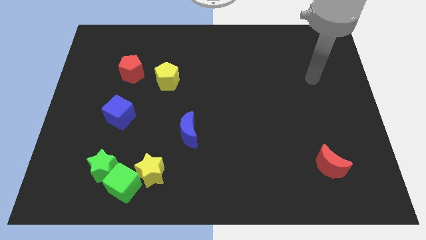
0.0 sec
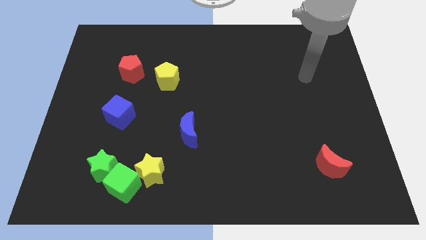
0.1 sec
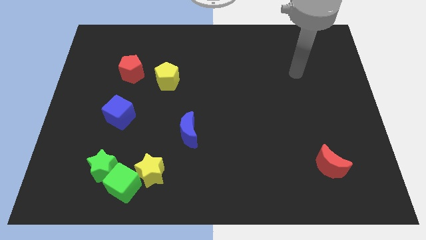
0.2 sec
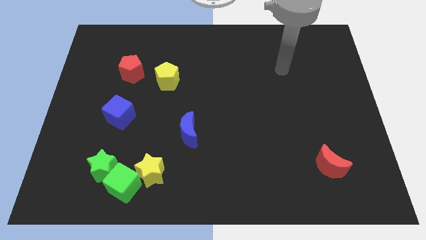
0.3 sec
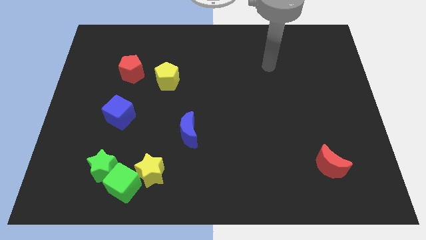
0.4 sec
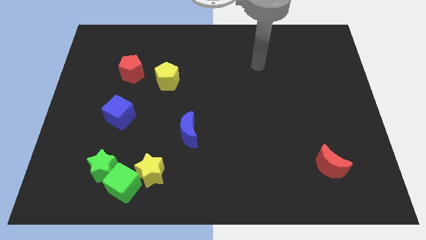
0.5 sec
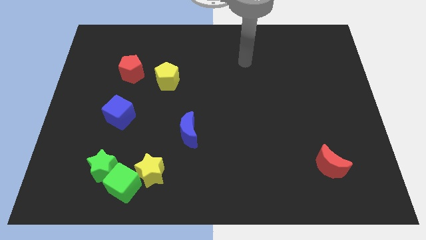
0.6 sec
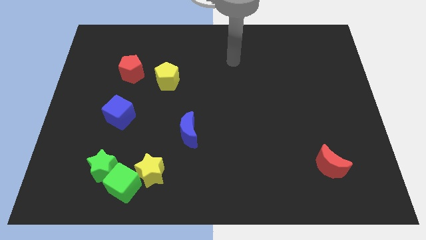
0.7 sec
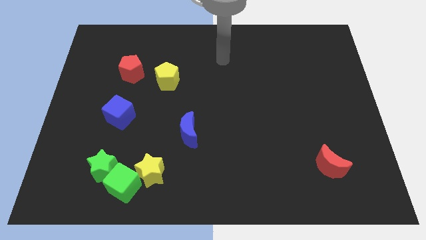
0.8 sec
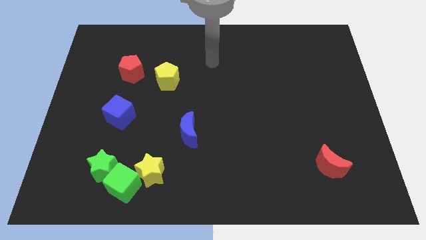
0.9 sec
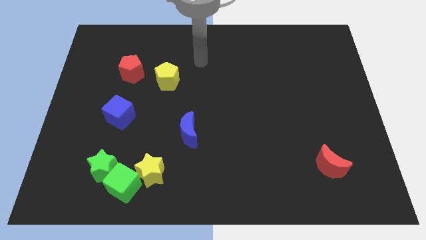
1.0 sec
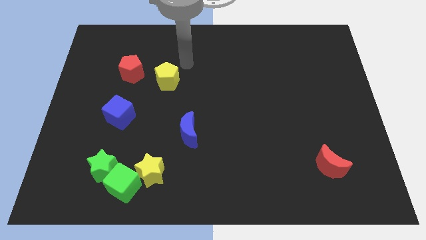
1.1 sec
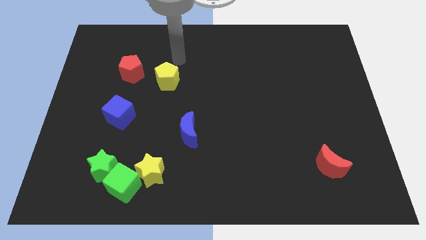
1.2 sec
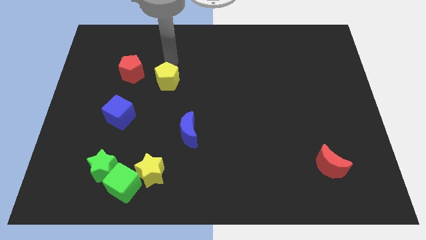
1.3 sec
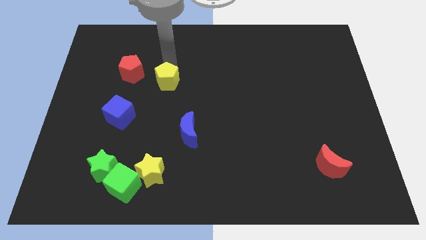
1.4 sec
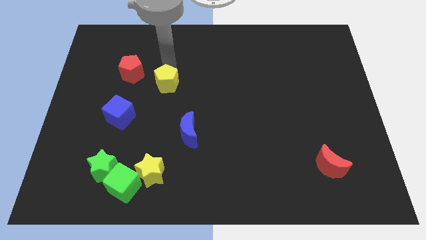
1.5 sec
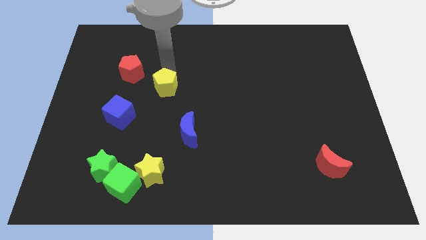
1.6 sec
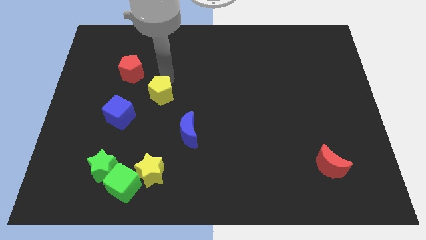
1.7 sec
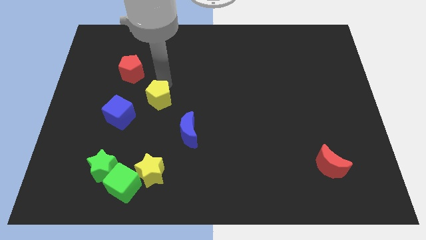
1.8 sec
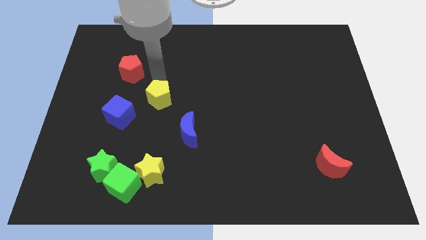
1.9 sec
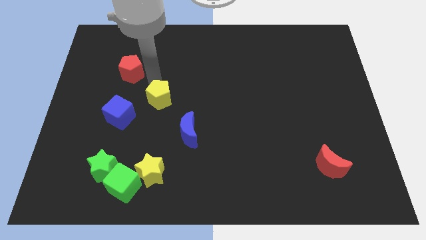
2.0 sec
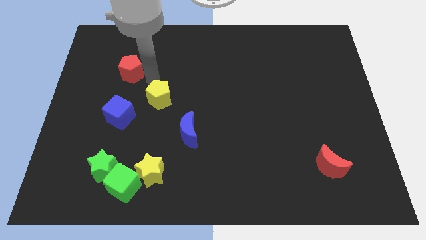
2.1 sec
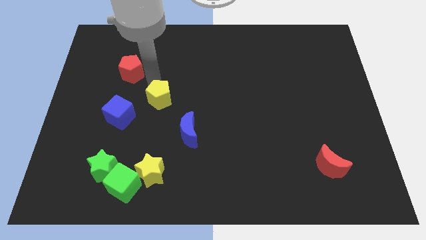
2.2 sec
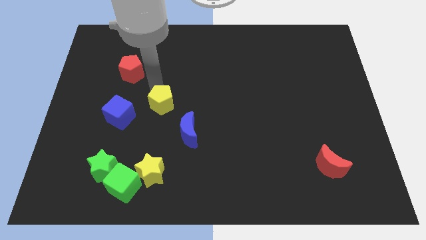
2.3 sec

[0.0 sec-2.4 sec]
slightly slide the yellow pentagon downwards

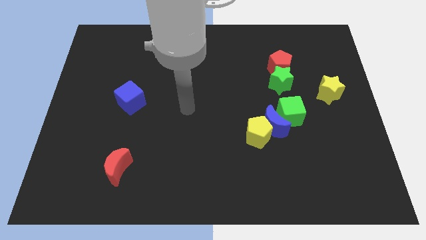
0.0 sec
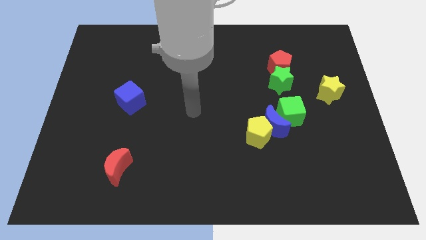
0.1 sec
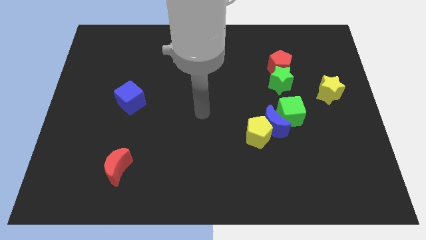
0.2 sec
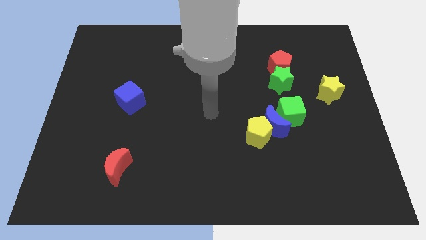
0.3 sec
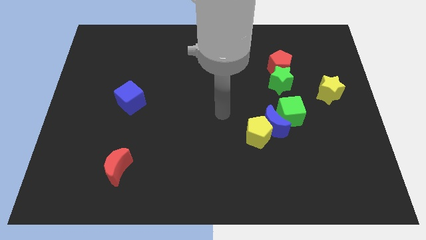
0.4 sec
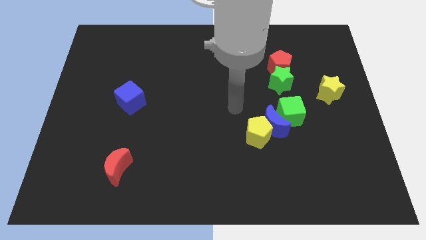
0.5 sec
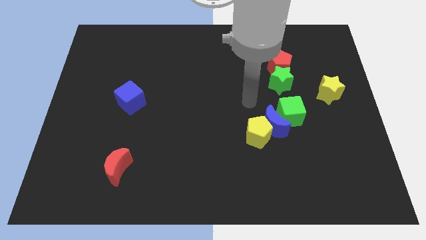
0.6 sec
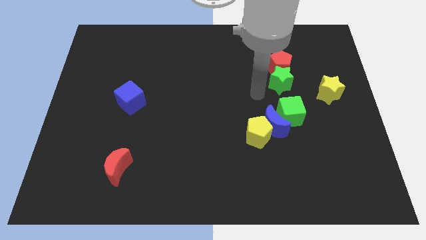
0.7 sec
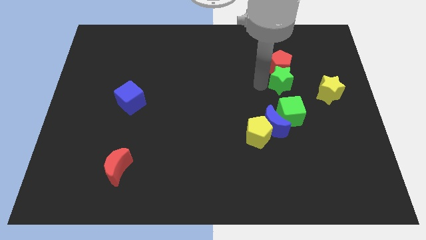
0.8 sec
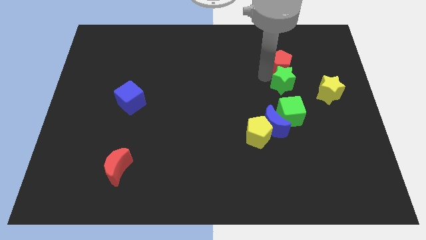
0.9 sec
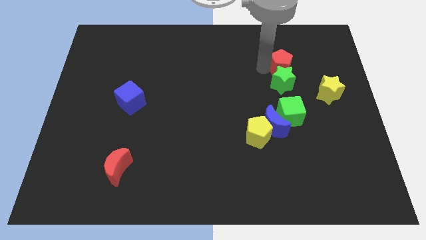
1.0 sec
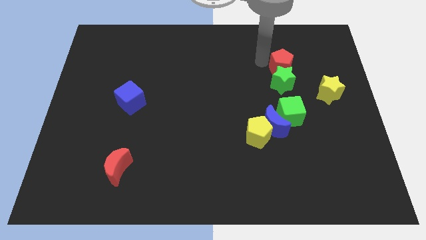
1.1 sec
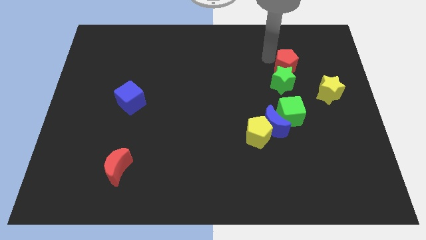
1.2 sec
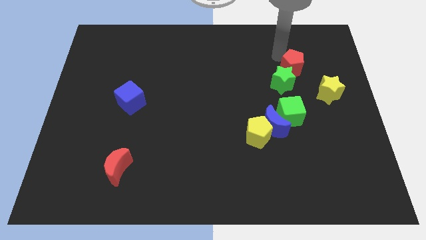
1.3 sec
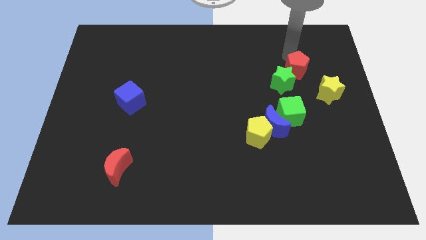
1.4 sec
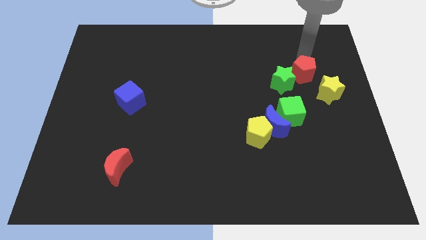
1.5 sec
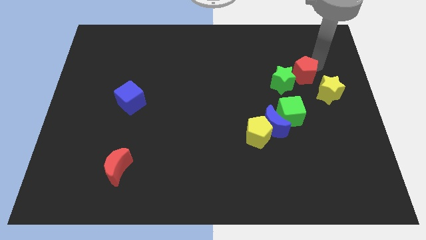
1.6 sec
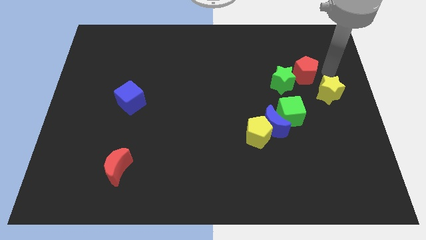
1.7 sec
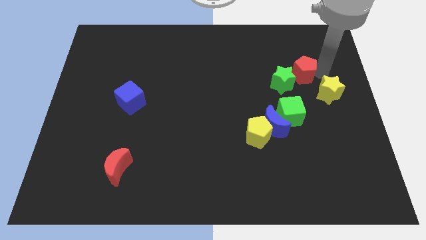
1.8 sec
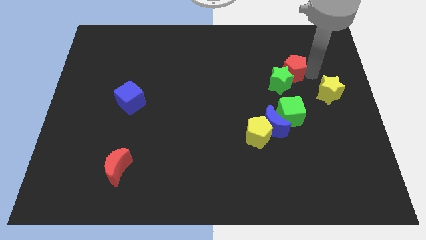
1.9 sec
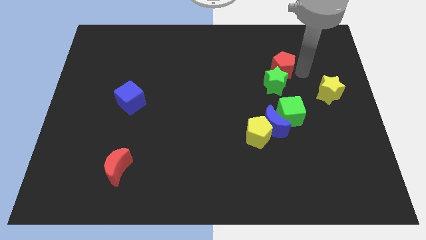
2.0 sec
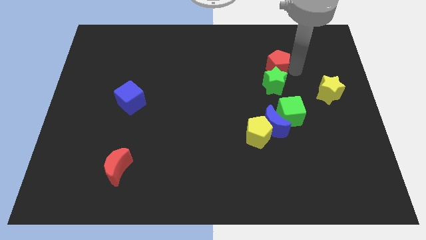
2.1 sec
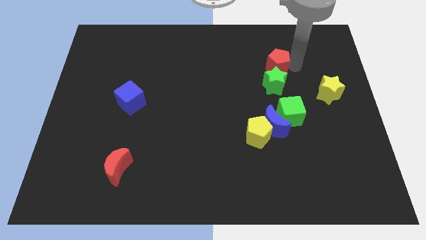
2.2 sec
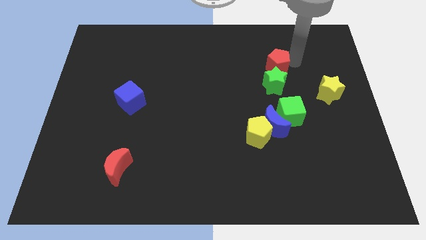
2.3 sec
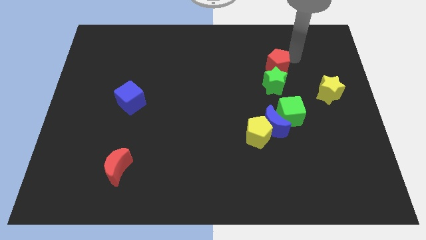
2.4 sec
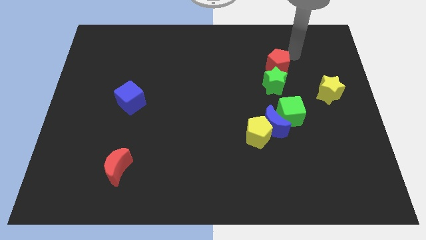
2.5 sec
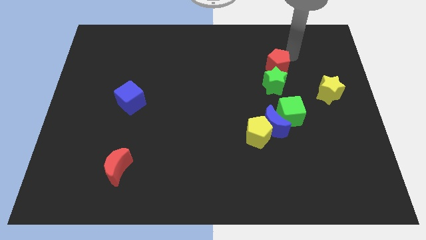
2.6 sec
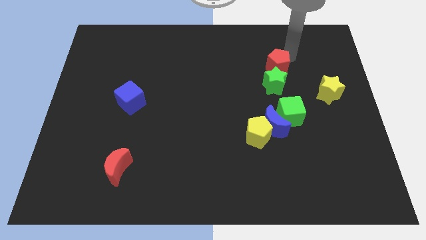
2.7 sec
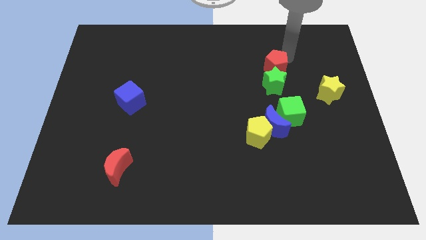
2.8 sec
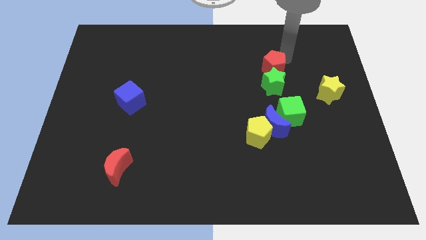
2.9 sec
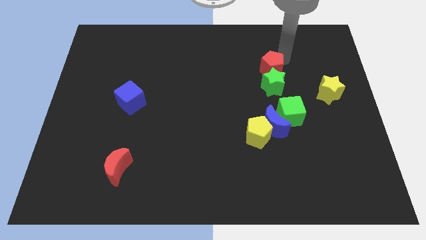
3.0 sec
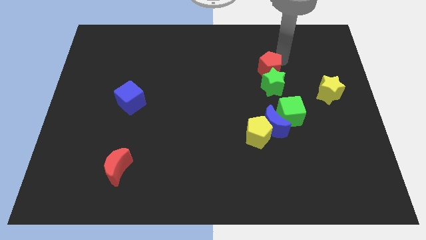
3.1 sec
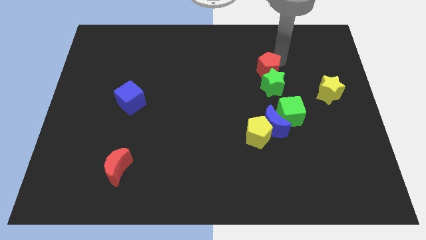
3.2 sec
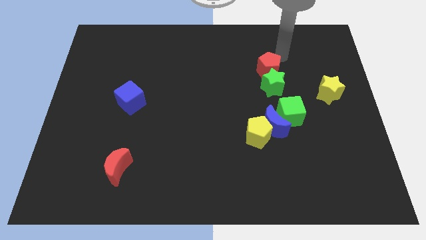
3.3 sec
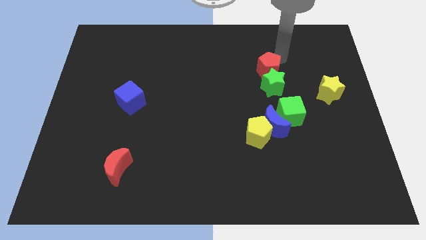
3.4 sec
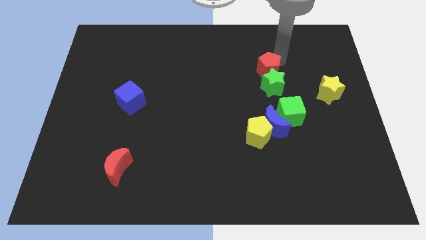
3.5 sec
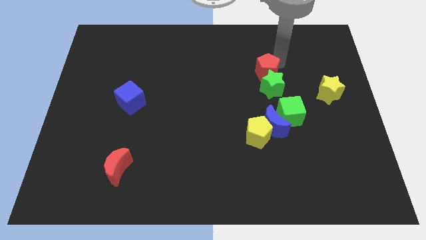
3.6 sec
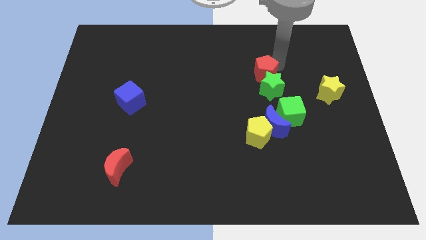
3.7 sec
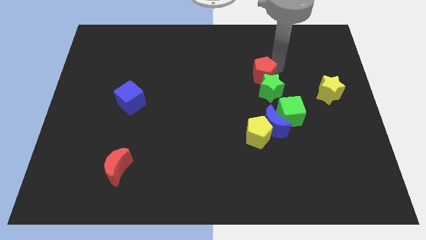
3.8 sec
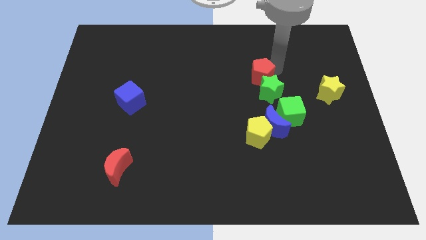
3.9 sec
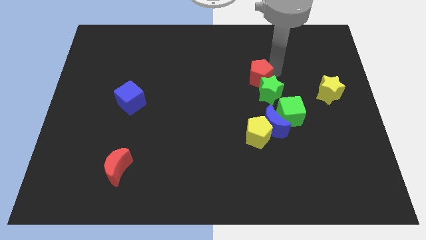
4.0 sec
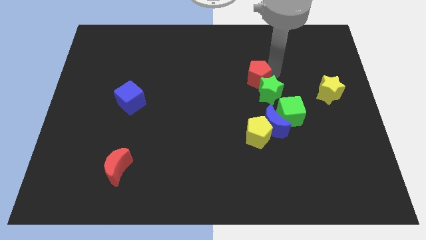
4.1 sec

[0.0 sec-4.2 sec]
slide the red pentagon diagonally down and left a bit

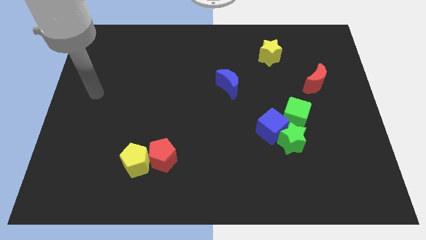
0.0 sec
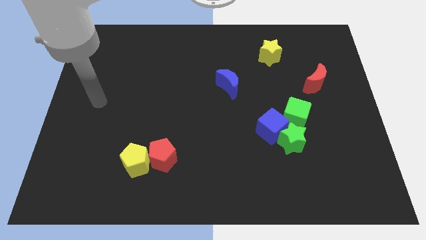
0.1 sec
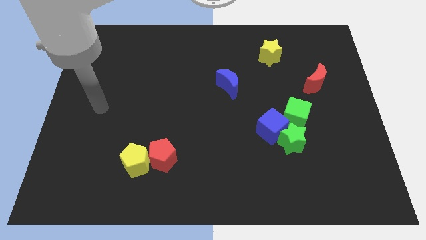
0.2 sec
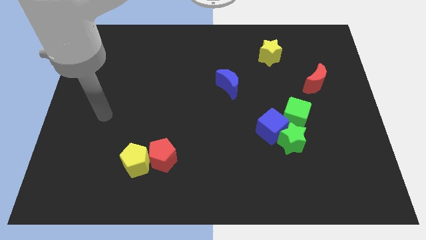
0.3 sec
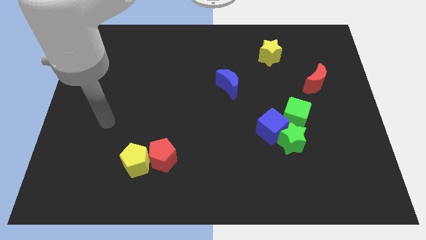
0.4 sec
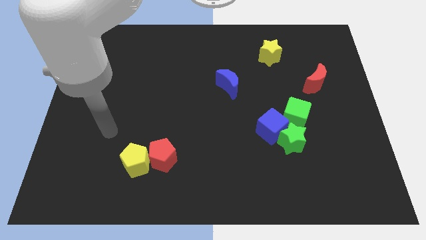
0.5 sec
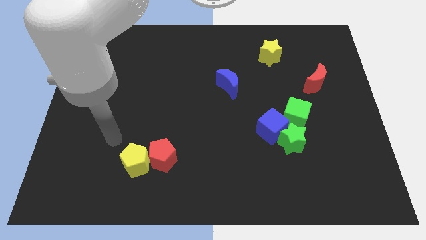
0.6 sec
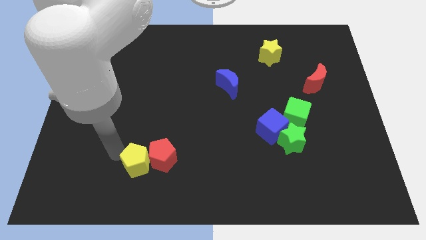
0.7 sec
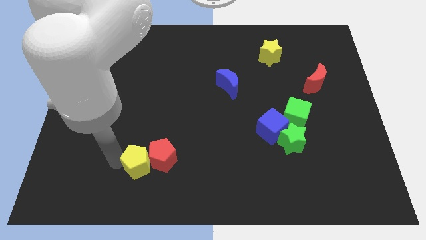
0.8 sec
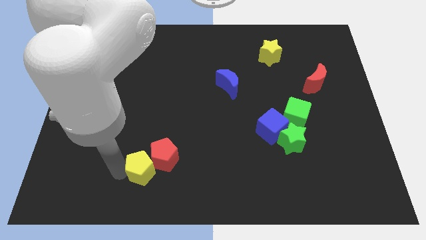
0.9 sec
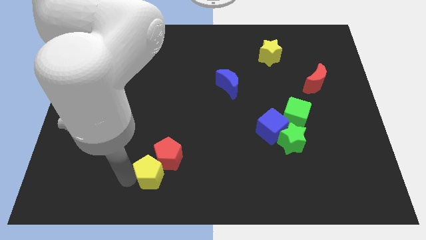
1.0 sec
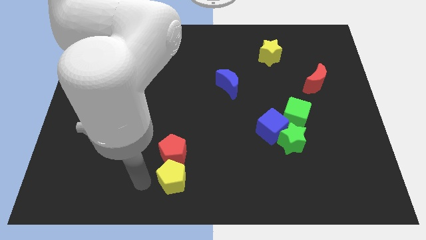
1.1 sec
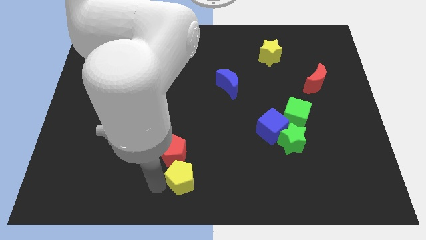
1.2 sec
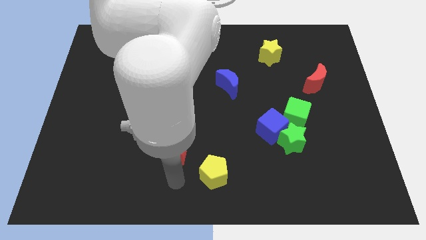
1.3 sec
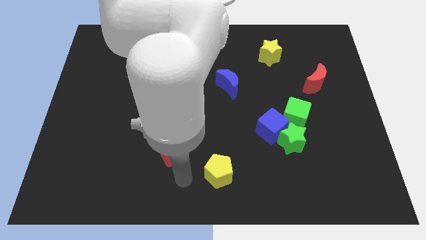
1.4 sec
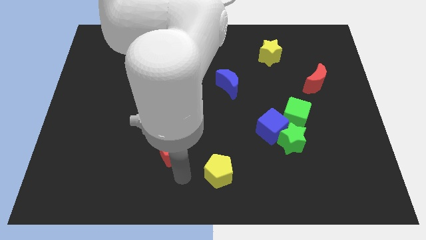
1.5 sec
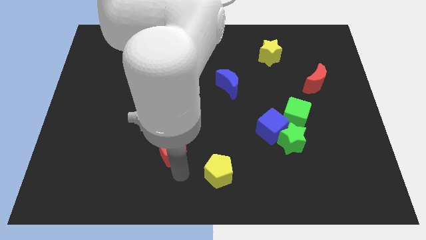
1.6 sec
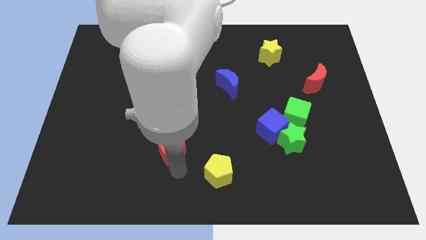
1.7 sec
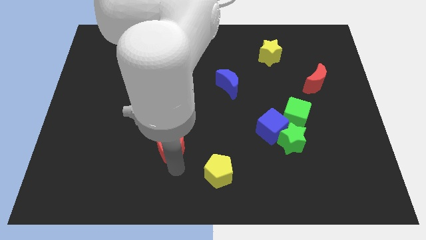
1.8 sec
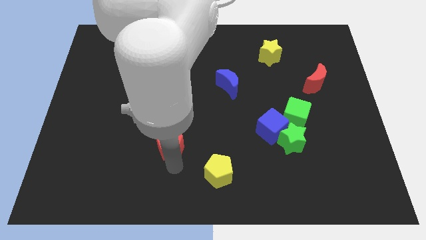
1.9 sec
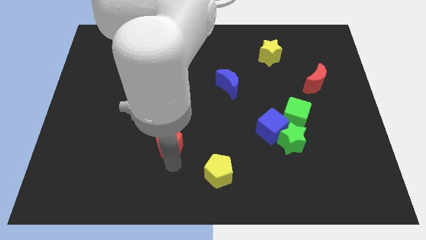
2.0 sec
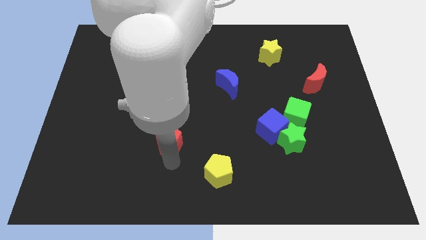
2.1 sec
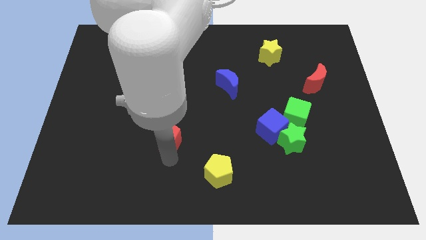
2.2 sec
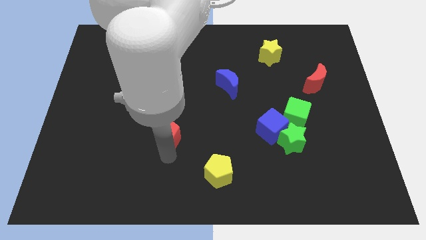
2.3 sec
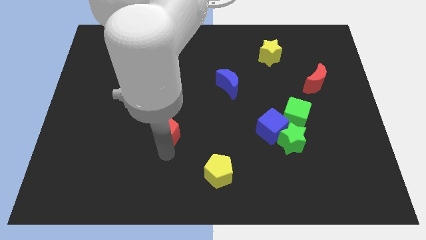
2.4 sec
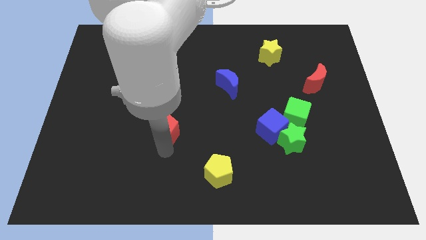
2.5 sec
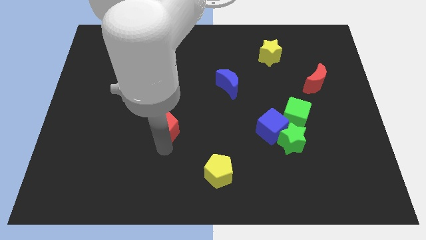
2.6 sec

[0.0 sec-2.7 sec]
push the red pentagon up a bit
